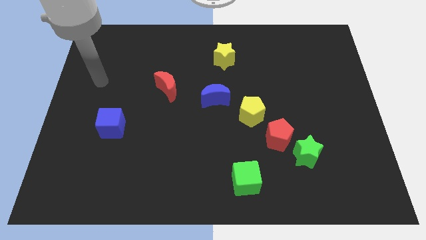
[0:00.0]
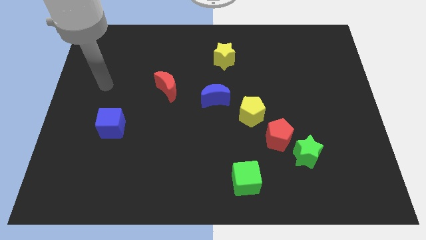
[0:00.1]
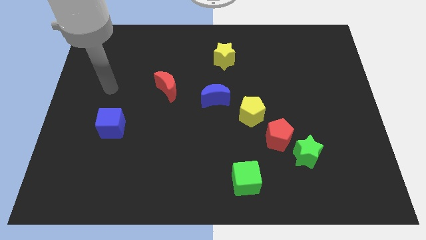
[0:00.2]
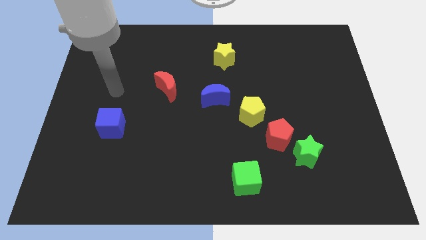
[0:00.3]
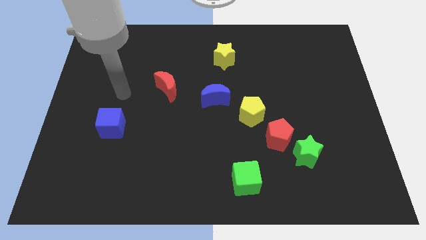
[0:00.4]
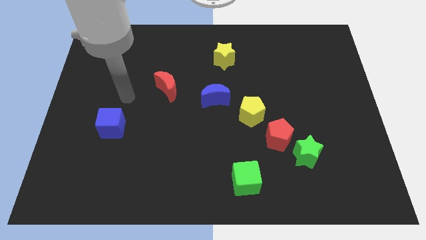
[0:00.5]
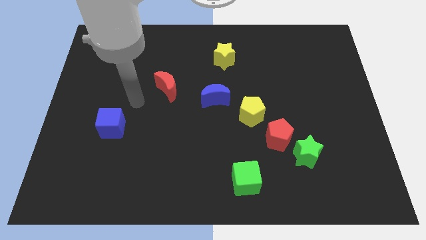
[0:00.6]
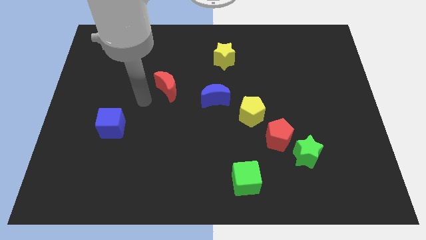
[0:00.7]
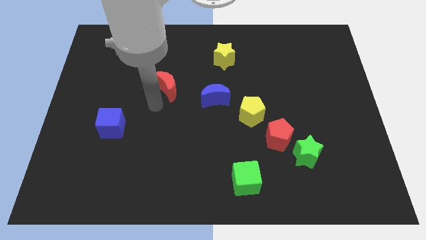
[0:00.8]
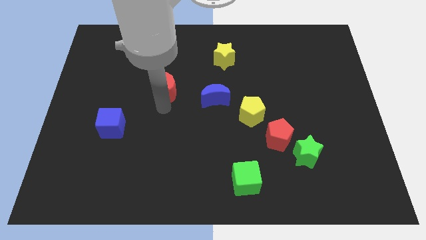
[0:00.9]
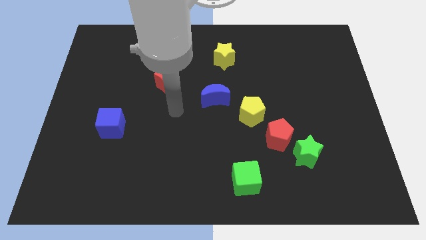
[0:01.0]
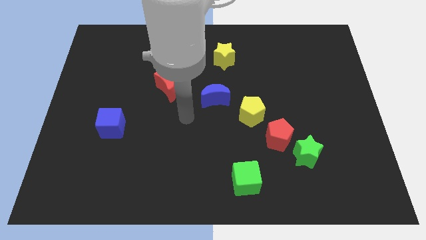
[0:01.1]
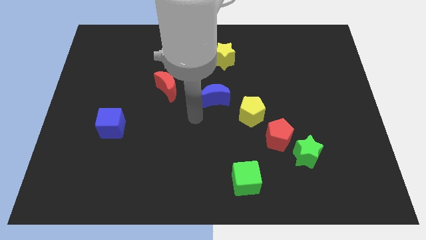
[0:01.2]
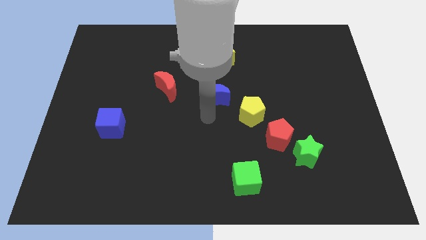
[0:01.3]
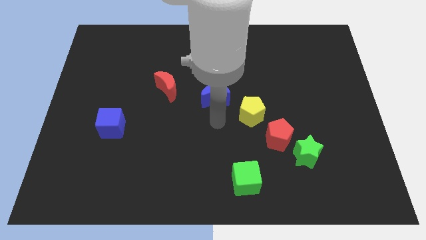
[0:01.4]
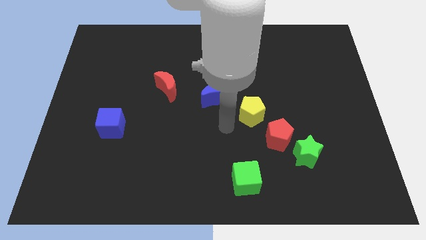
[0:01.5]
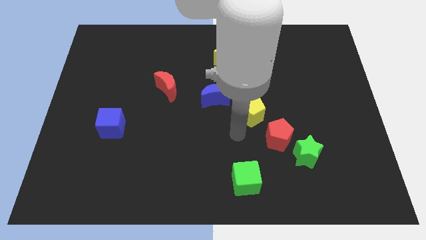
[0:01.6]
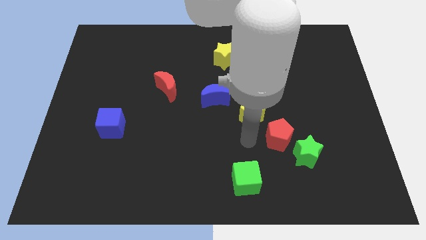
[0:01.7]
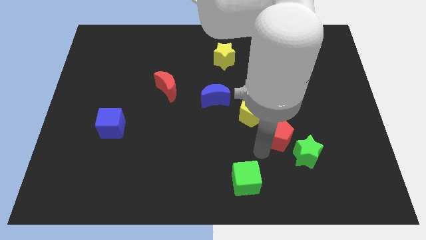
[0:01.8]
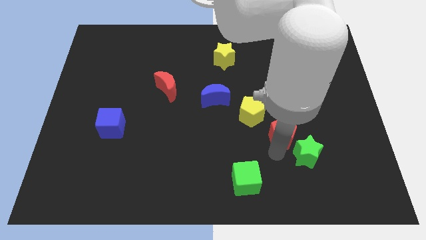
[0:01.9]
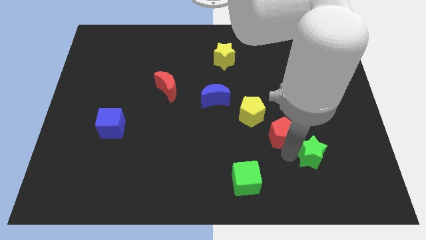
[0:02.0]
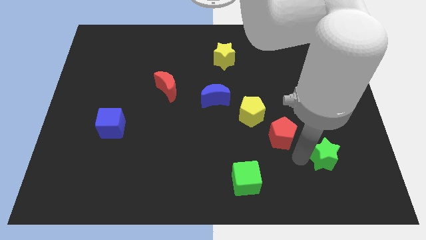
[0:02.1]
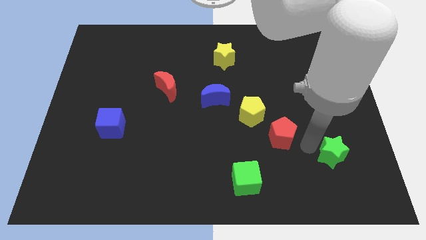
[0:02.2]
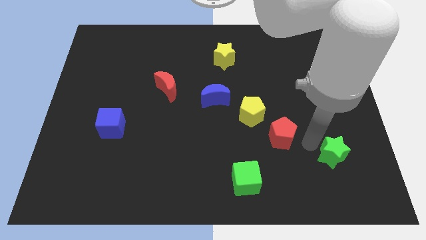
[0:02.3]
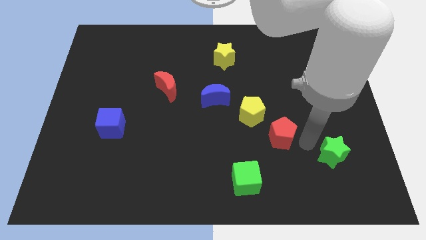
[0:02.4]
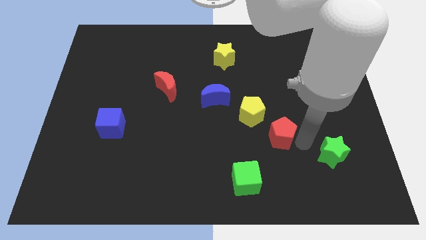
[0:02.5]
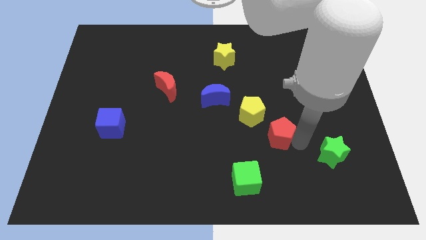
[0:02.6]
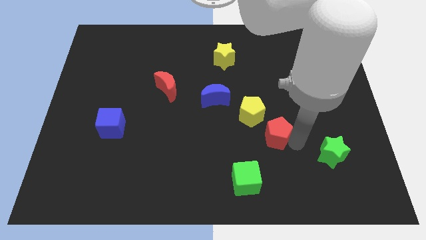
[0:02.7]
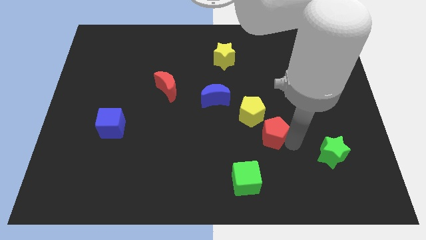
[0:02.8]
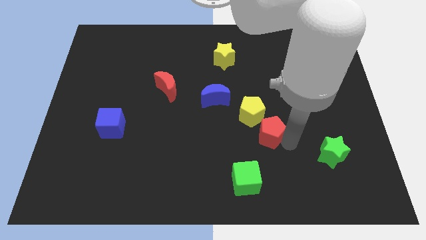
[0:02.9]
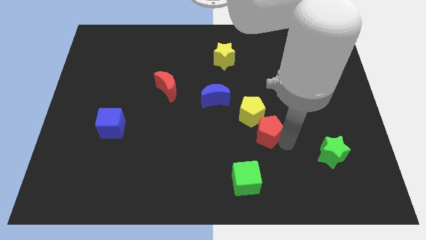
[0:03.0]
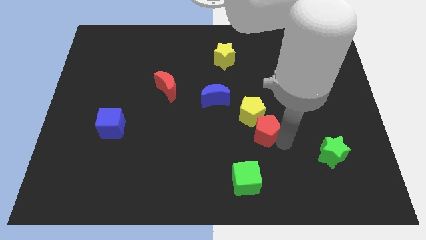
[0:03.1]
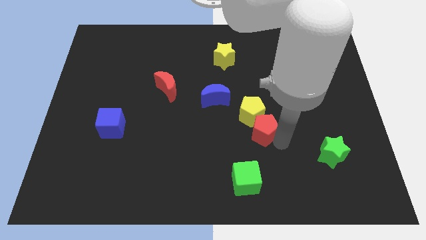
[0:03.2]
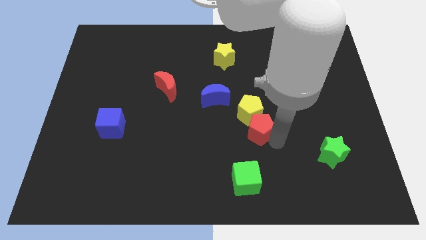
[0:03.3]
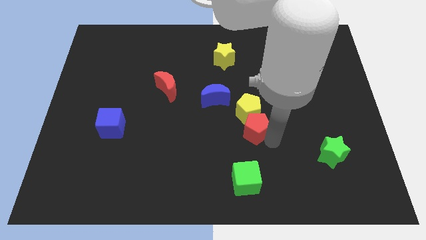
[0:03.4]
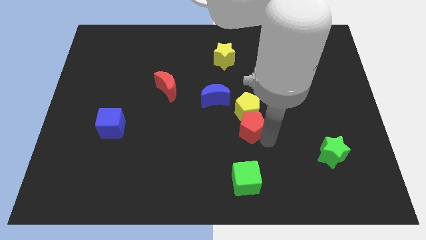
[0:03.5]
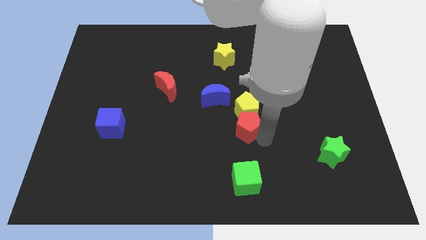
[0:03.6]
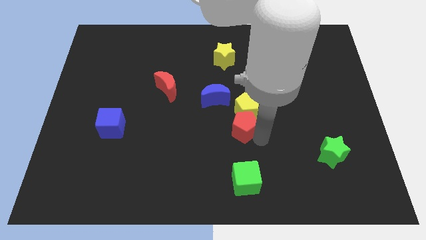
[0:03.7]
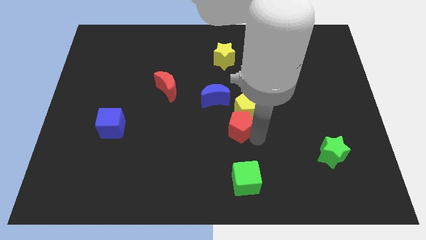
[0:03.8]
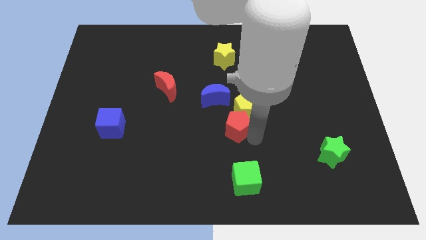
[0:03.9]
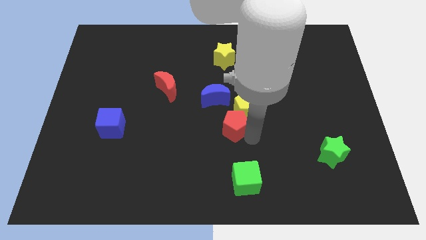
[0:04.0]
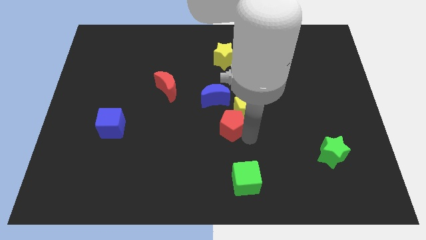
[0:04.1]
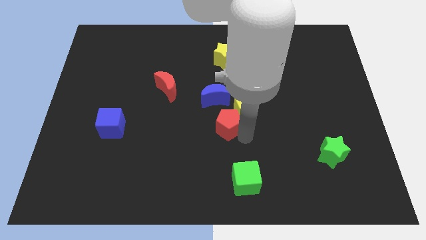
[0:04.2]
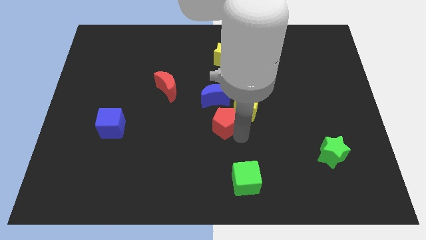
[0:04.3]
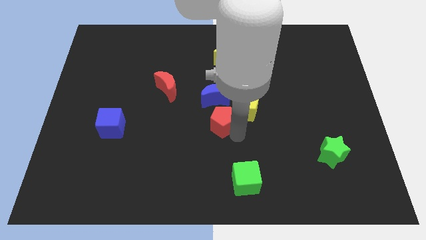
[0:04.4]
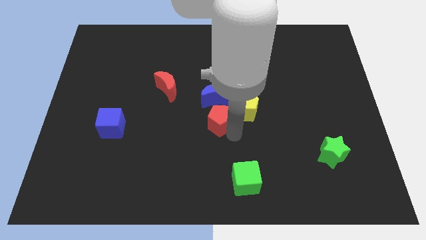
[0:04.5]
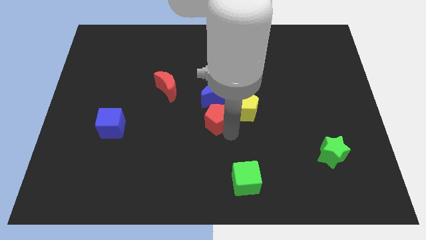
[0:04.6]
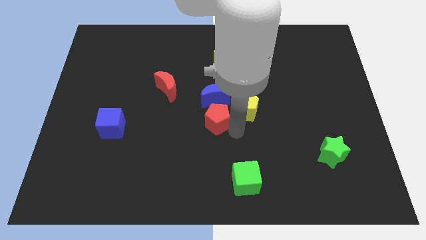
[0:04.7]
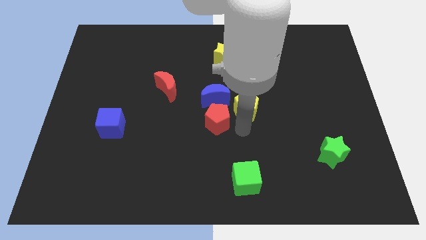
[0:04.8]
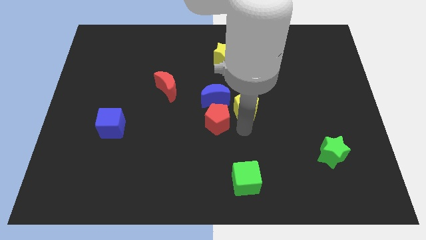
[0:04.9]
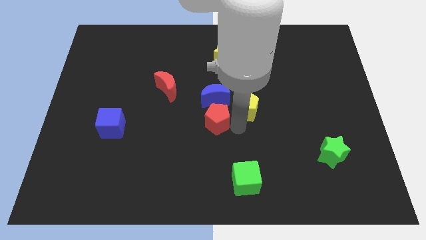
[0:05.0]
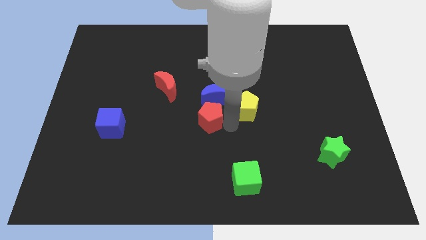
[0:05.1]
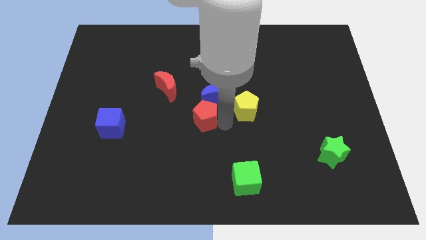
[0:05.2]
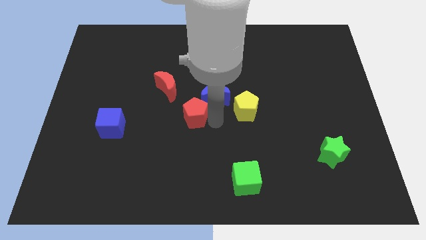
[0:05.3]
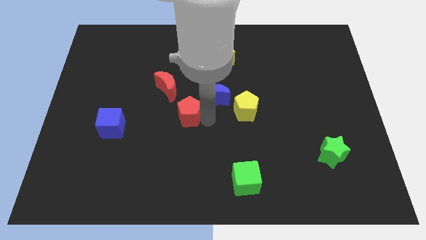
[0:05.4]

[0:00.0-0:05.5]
push the red pentagon just left of the blue moon

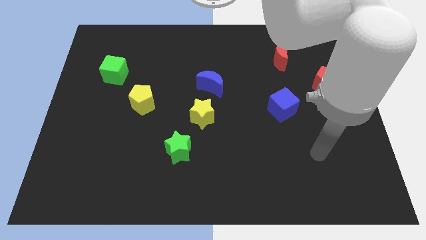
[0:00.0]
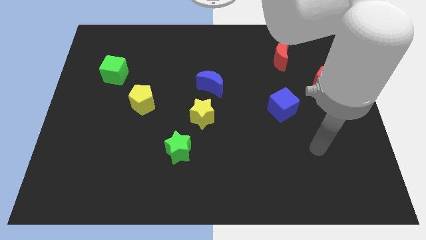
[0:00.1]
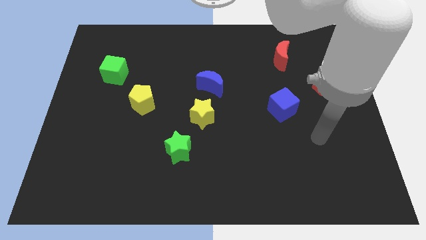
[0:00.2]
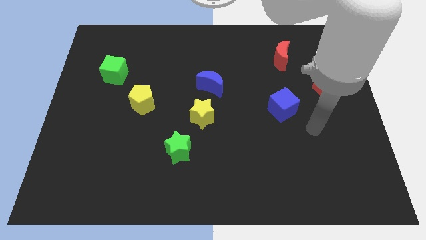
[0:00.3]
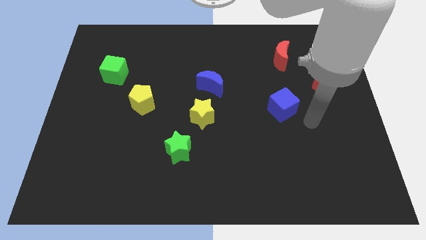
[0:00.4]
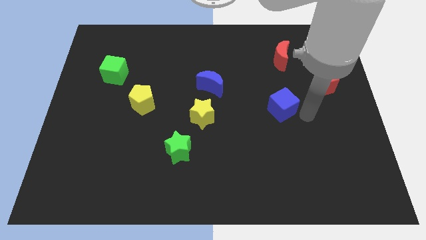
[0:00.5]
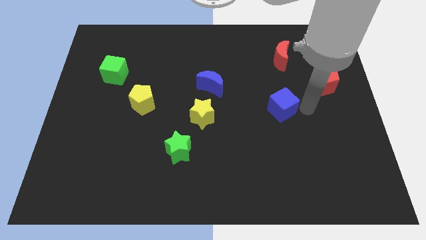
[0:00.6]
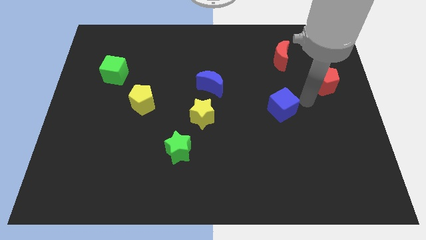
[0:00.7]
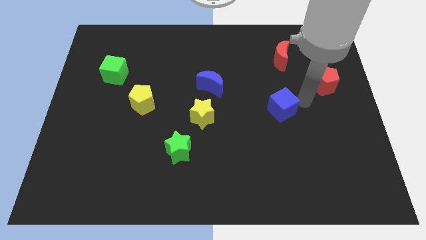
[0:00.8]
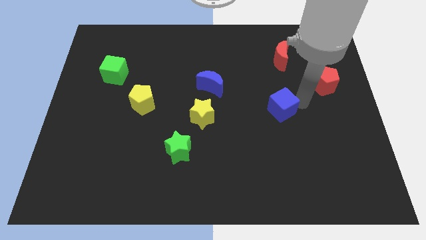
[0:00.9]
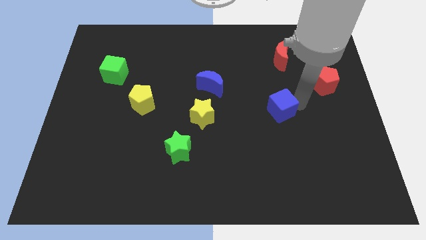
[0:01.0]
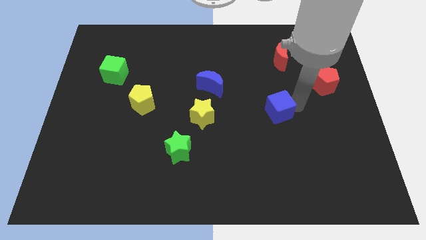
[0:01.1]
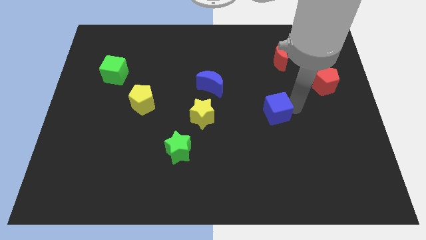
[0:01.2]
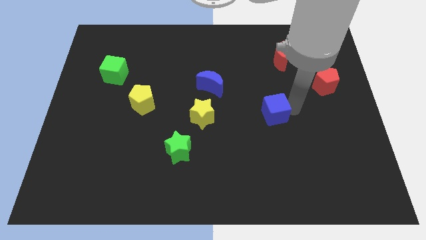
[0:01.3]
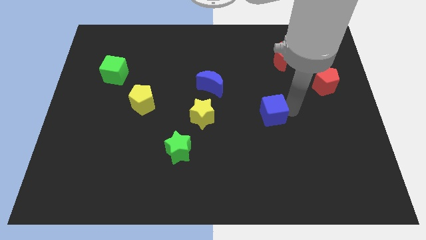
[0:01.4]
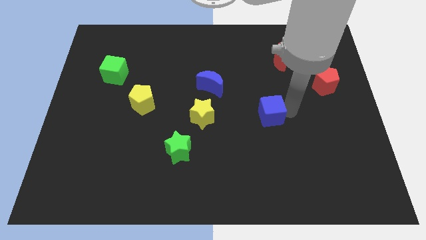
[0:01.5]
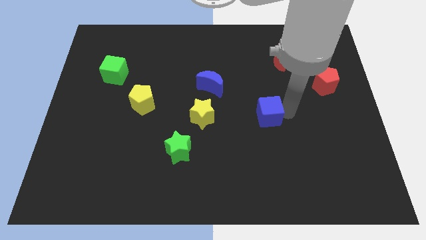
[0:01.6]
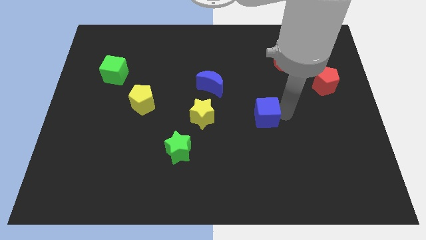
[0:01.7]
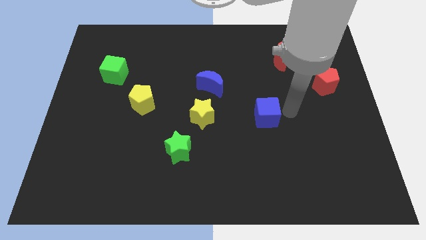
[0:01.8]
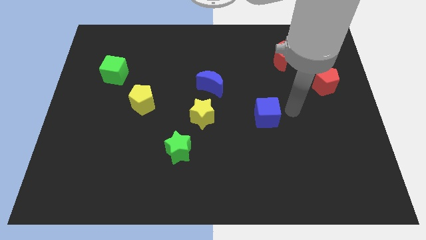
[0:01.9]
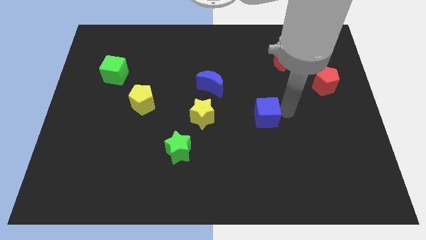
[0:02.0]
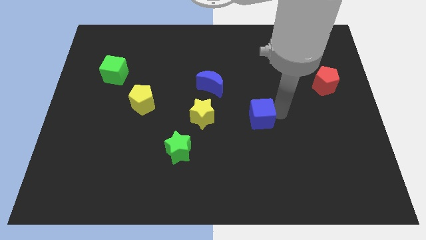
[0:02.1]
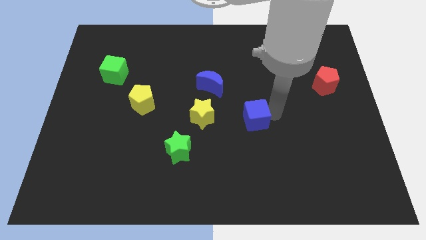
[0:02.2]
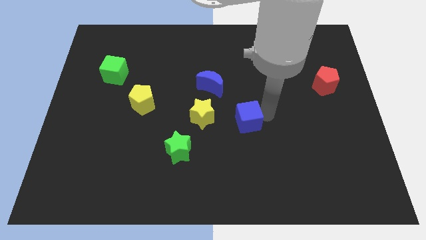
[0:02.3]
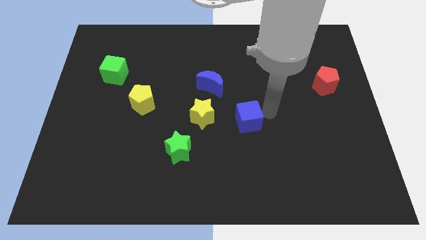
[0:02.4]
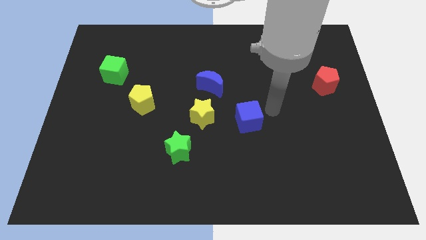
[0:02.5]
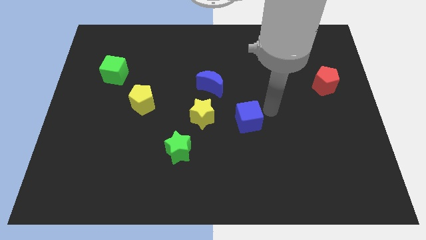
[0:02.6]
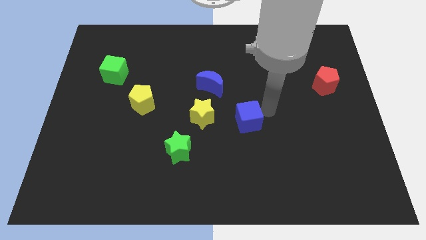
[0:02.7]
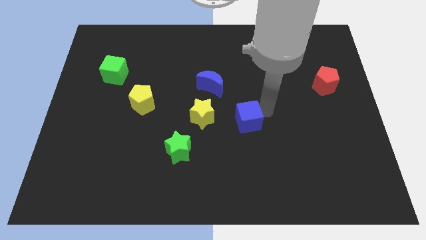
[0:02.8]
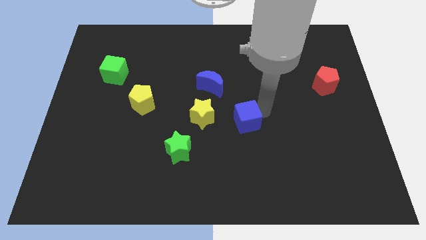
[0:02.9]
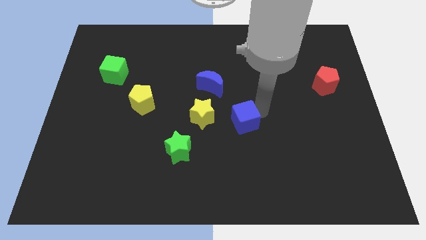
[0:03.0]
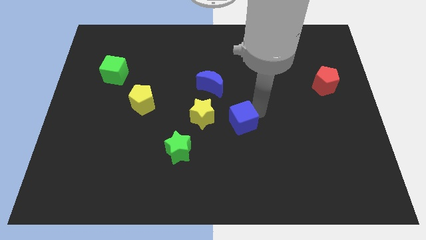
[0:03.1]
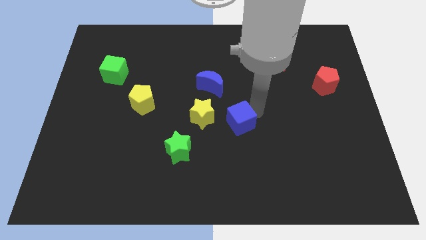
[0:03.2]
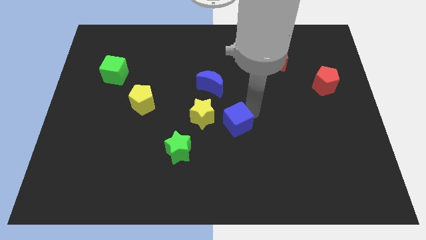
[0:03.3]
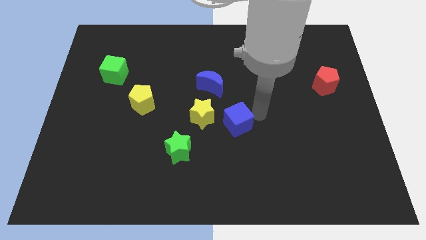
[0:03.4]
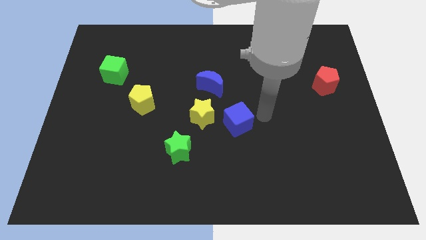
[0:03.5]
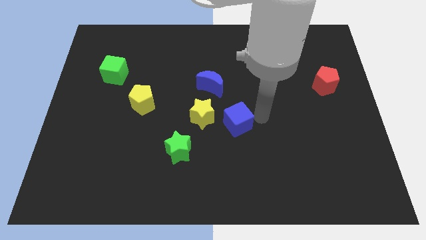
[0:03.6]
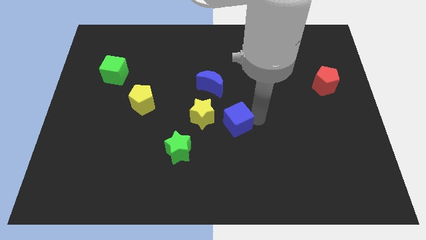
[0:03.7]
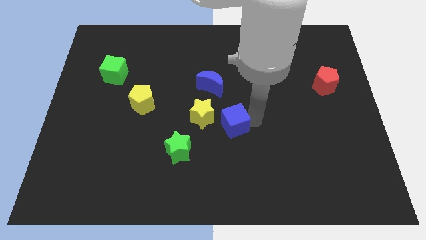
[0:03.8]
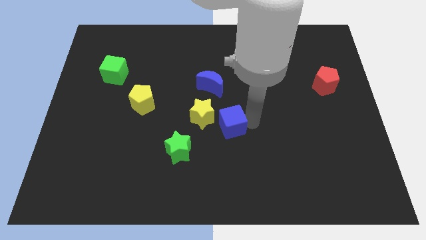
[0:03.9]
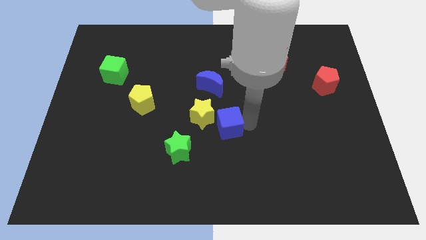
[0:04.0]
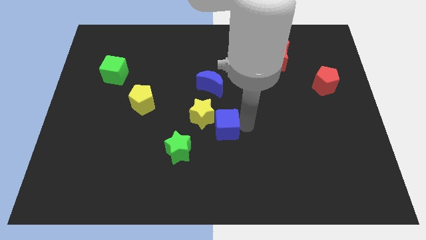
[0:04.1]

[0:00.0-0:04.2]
move the blue cube to the top right side of the green star
